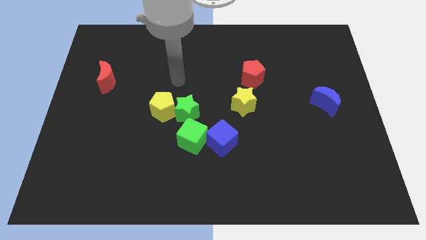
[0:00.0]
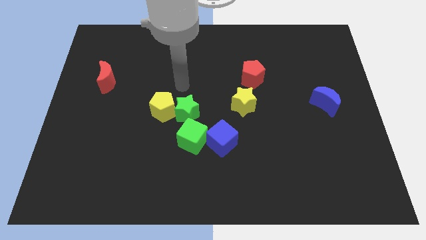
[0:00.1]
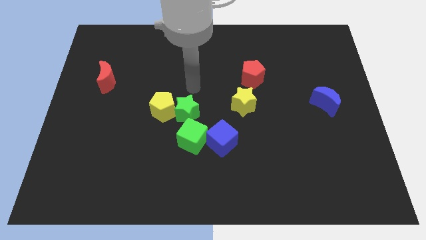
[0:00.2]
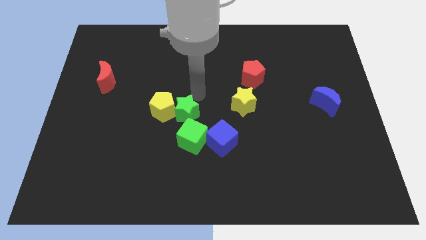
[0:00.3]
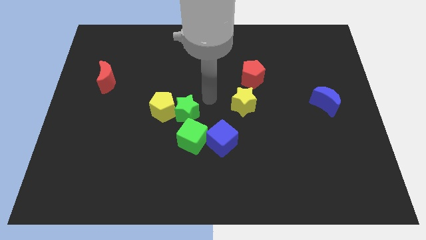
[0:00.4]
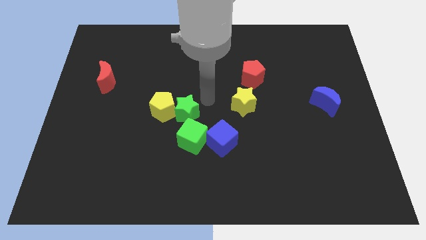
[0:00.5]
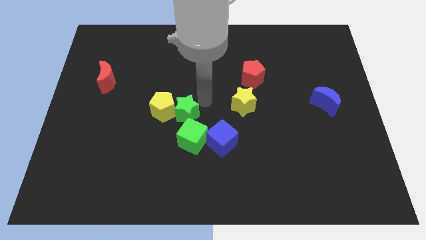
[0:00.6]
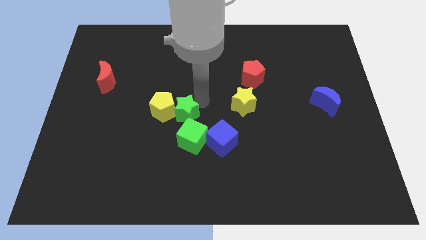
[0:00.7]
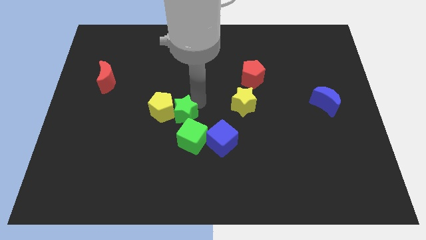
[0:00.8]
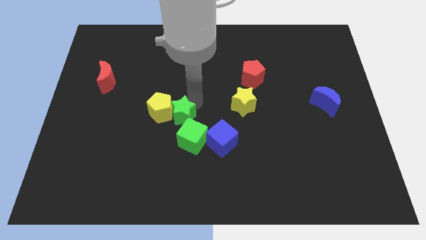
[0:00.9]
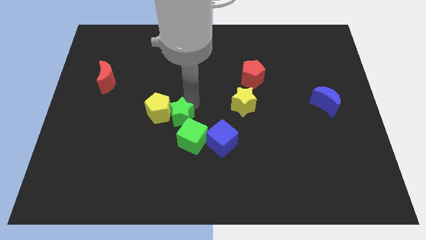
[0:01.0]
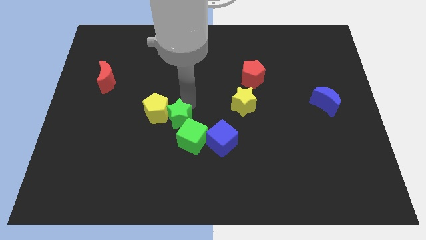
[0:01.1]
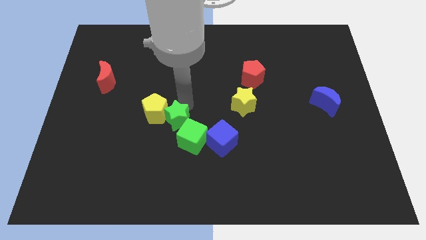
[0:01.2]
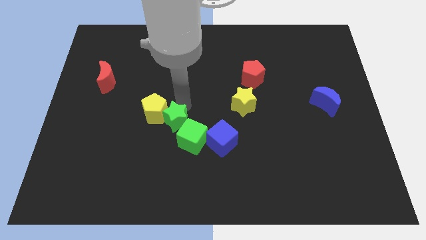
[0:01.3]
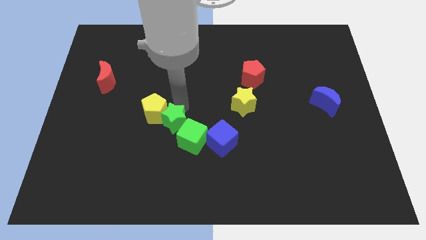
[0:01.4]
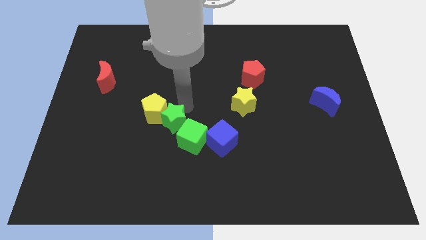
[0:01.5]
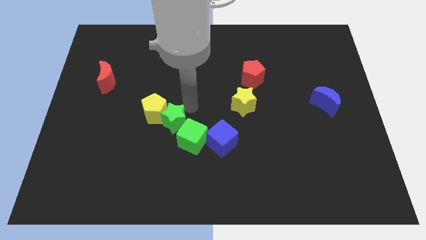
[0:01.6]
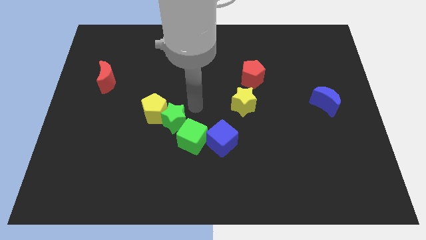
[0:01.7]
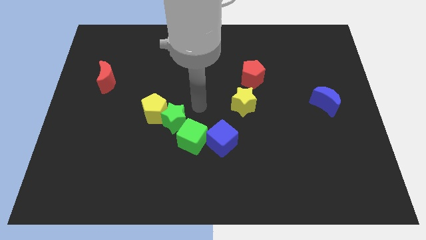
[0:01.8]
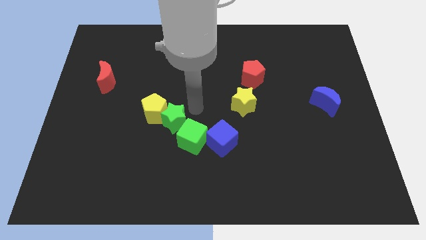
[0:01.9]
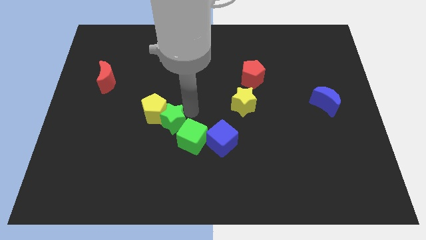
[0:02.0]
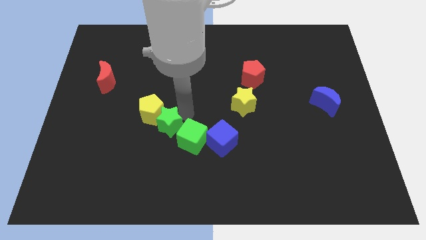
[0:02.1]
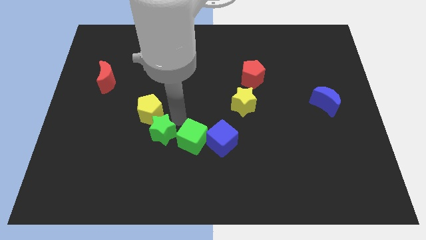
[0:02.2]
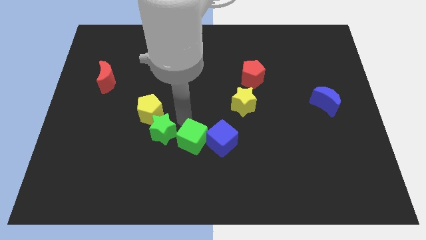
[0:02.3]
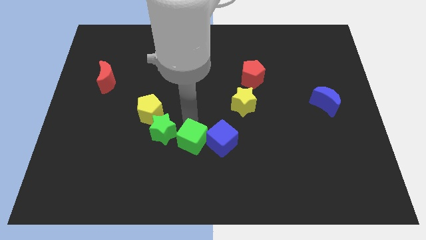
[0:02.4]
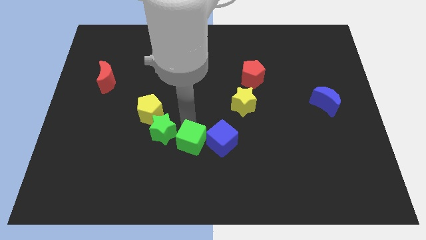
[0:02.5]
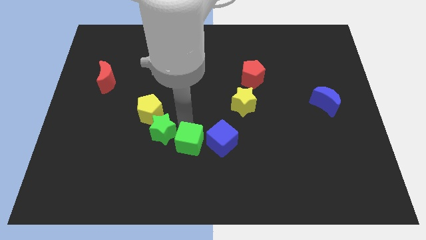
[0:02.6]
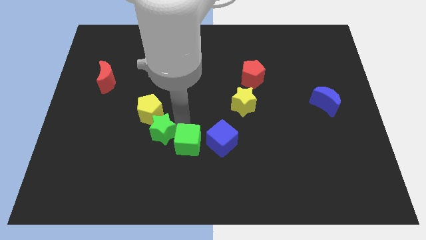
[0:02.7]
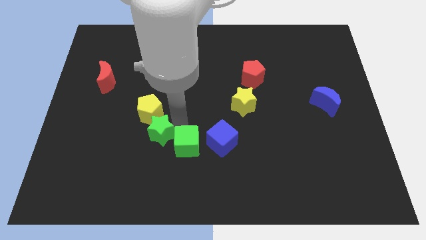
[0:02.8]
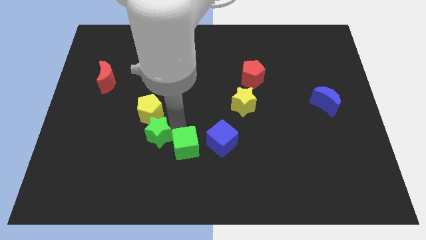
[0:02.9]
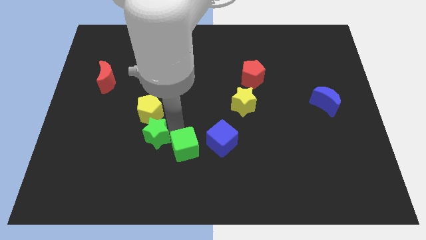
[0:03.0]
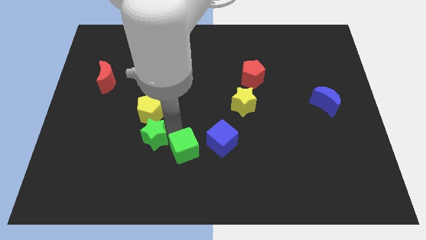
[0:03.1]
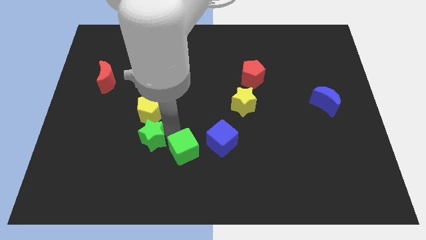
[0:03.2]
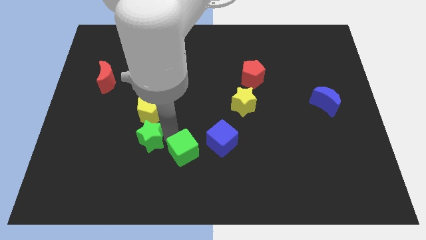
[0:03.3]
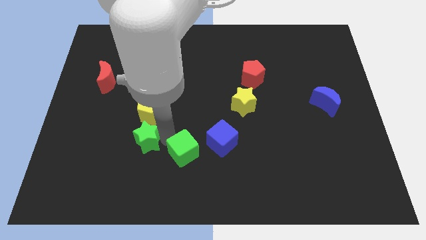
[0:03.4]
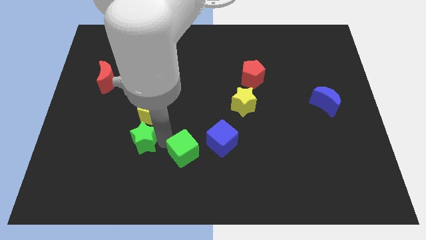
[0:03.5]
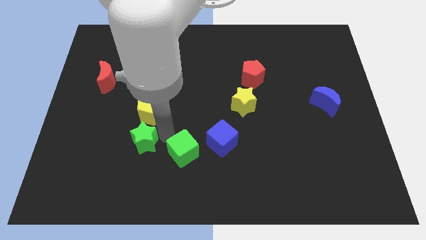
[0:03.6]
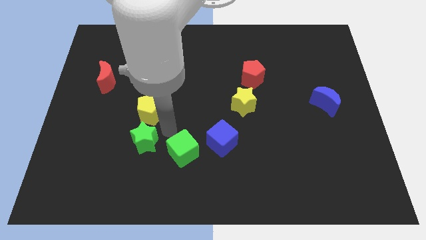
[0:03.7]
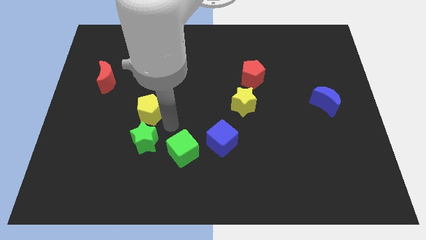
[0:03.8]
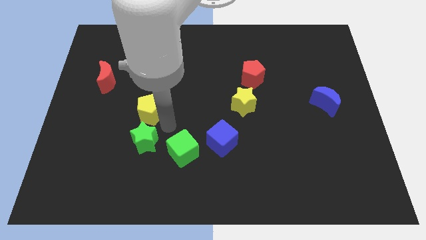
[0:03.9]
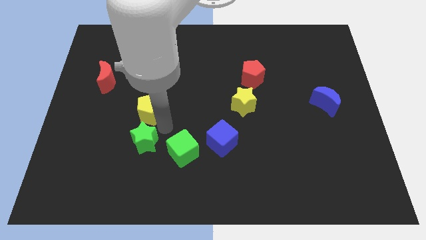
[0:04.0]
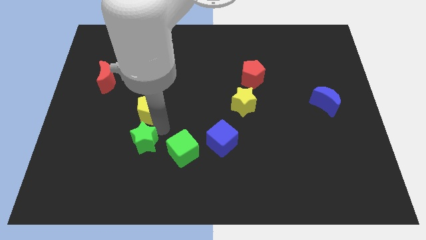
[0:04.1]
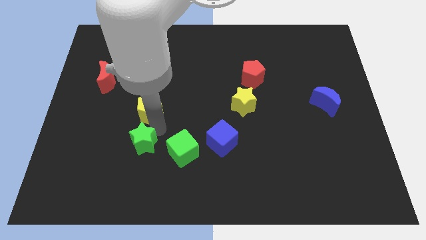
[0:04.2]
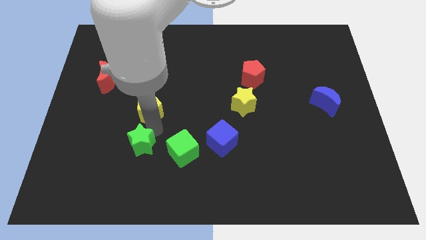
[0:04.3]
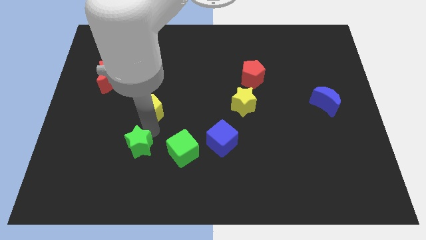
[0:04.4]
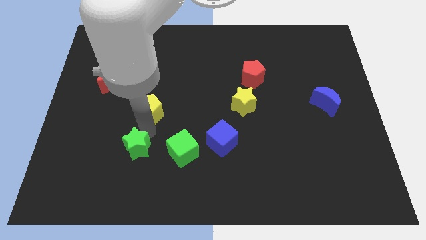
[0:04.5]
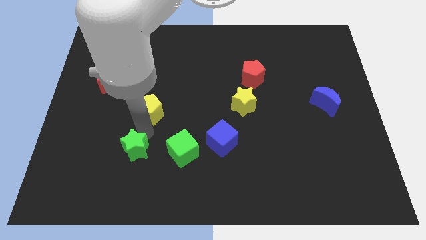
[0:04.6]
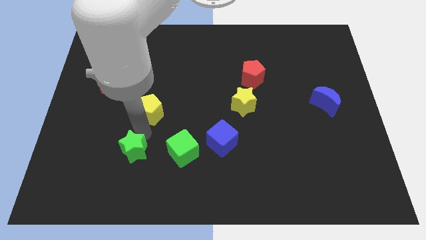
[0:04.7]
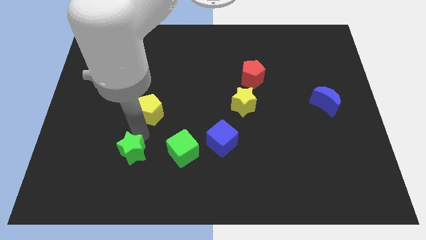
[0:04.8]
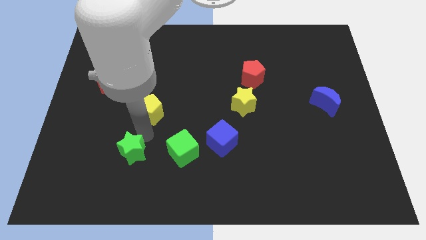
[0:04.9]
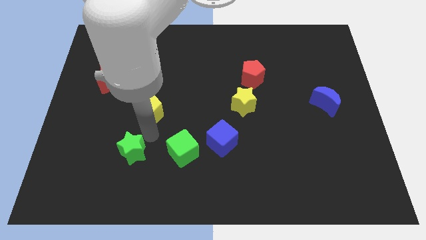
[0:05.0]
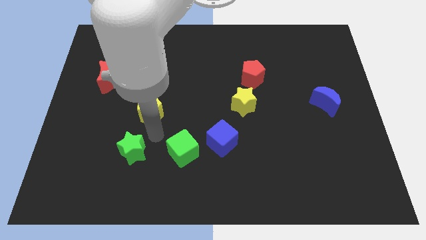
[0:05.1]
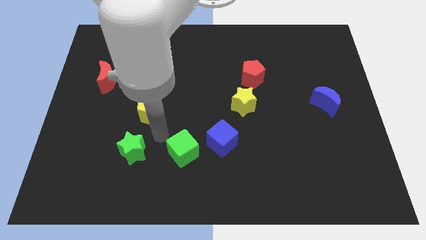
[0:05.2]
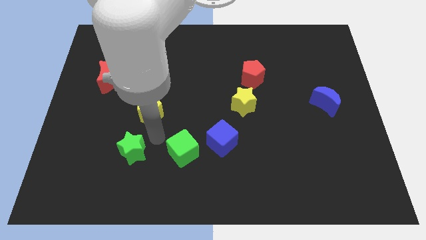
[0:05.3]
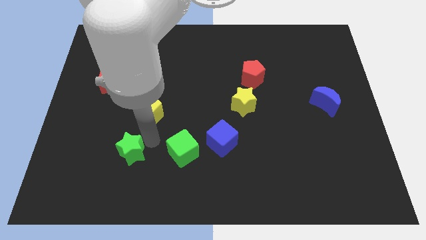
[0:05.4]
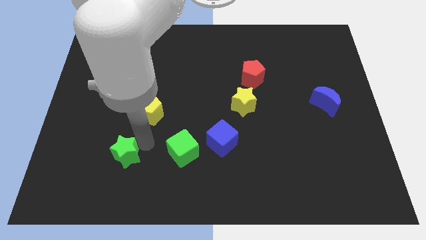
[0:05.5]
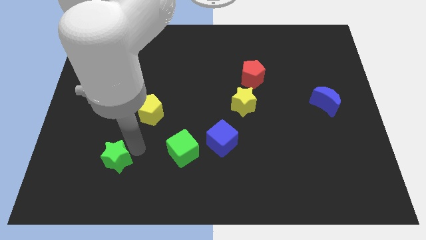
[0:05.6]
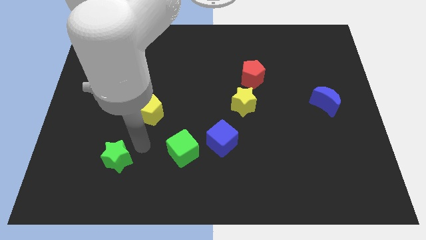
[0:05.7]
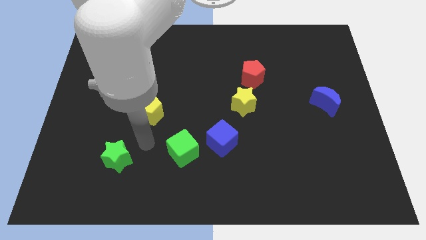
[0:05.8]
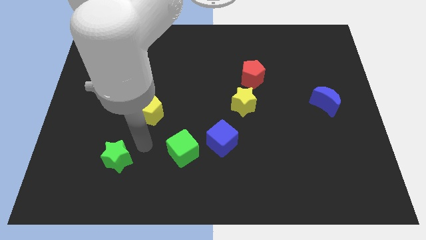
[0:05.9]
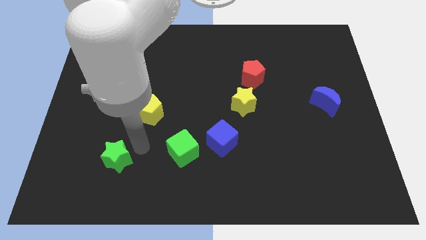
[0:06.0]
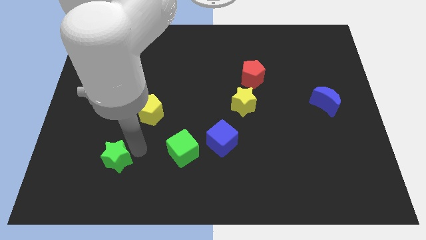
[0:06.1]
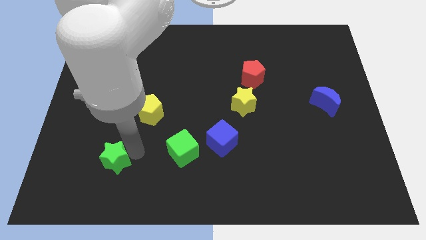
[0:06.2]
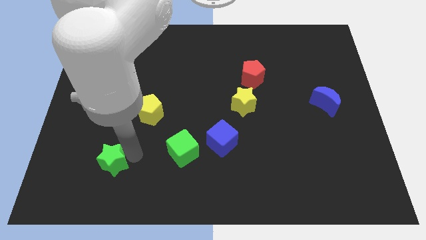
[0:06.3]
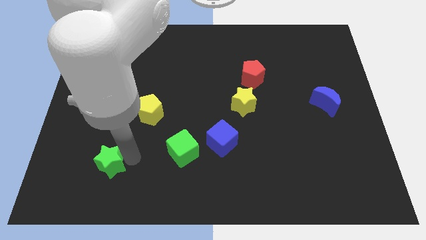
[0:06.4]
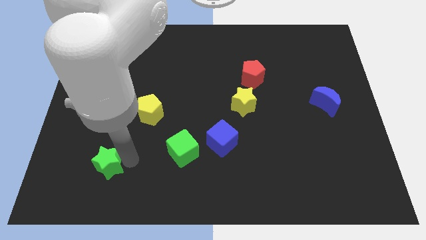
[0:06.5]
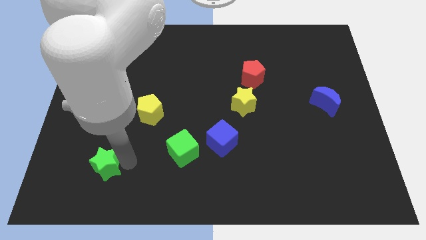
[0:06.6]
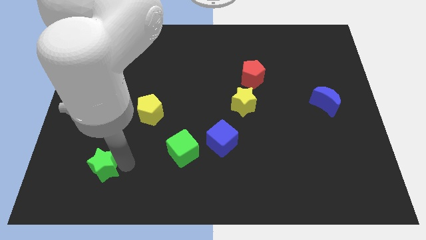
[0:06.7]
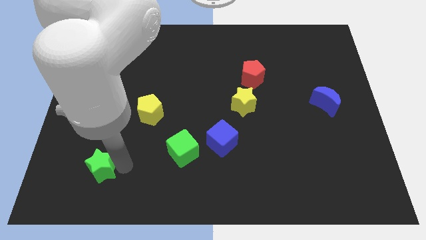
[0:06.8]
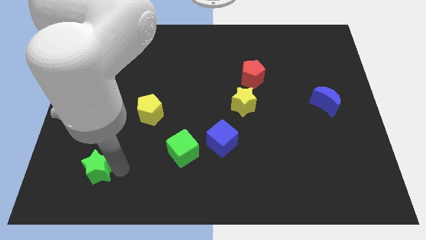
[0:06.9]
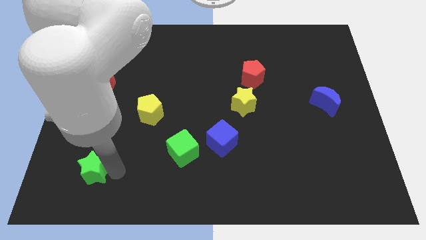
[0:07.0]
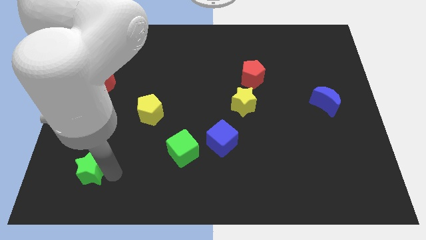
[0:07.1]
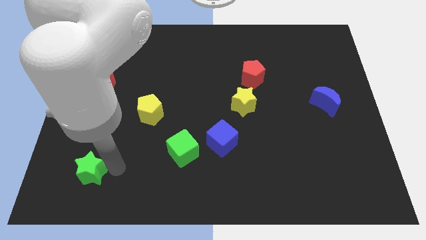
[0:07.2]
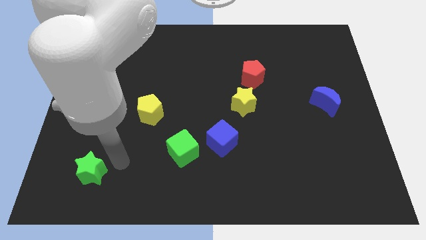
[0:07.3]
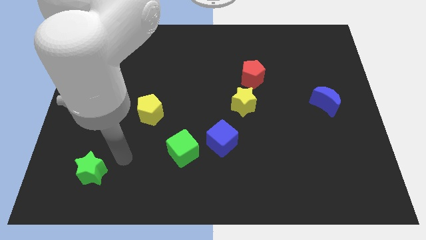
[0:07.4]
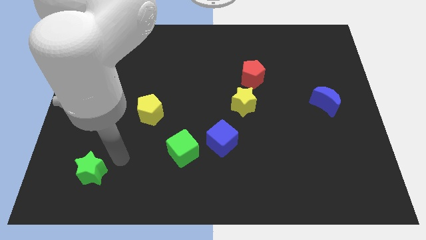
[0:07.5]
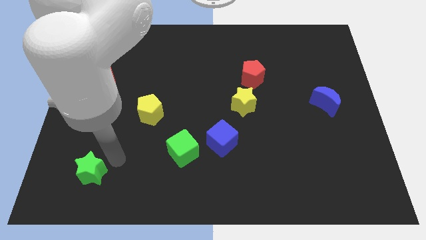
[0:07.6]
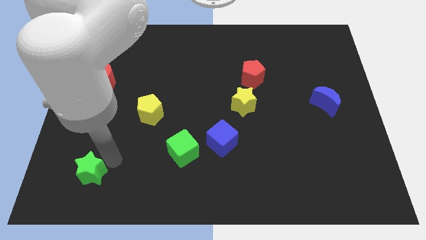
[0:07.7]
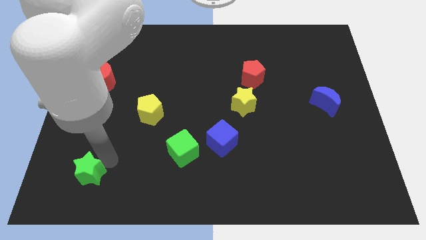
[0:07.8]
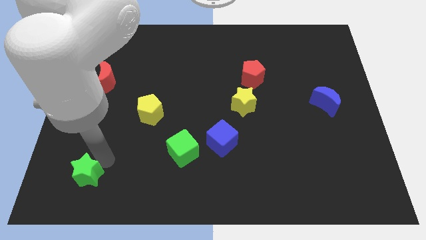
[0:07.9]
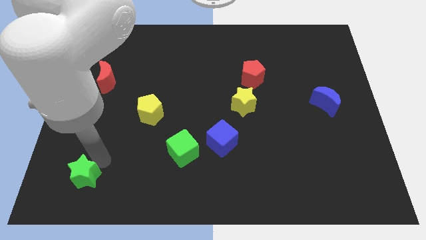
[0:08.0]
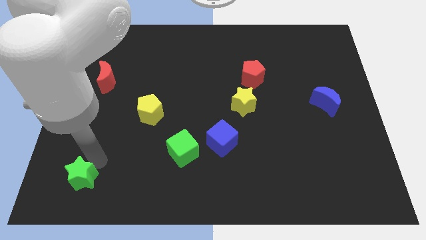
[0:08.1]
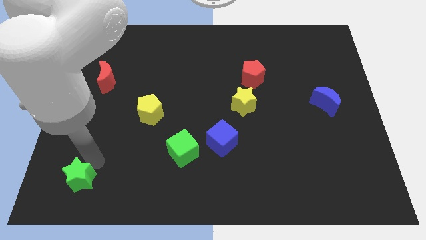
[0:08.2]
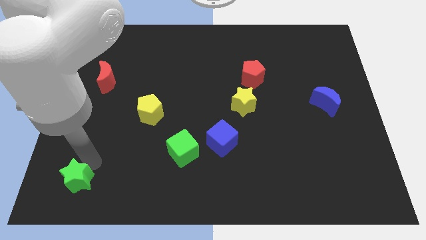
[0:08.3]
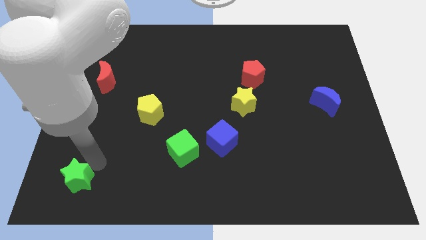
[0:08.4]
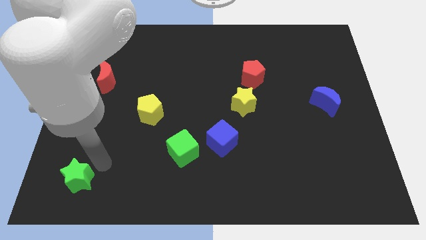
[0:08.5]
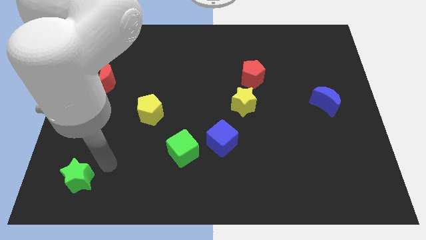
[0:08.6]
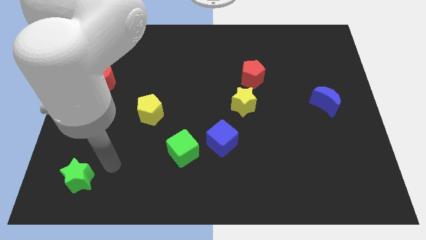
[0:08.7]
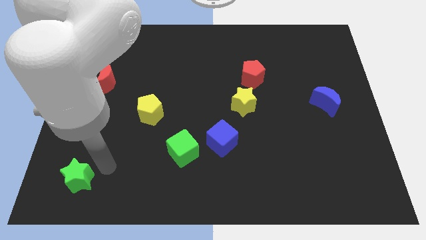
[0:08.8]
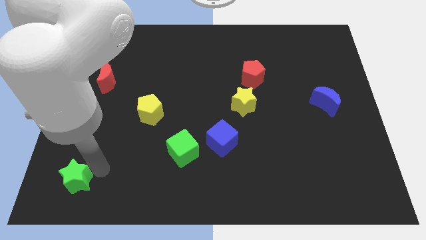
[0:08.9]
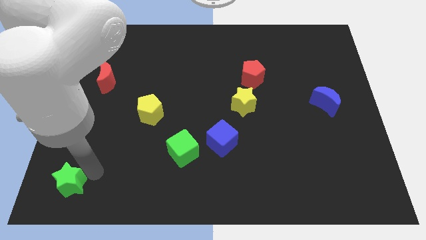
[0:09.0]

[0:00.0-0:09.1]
slide the green star to the lower left corner
